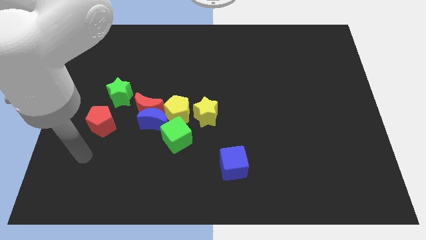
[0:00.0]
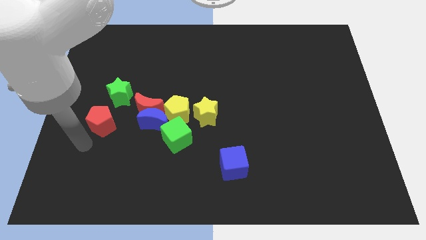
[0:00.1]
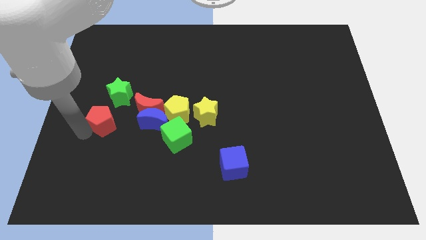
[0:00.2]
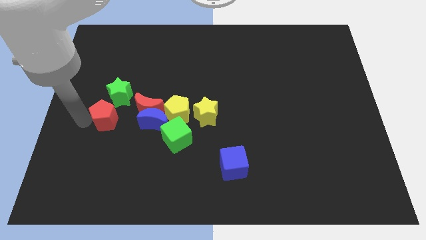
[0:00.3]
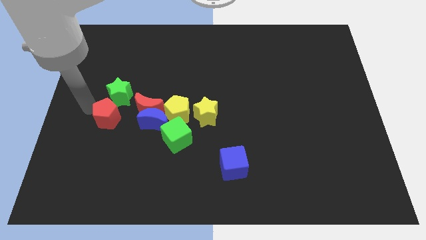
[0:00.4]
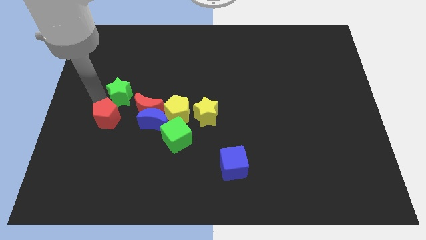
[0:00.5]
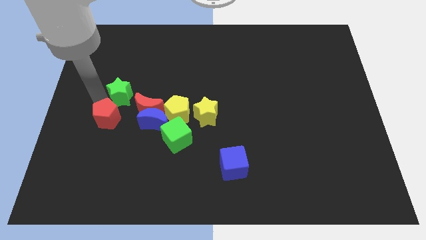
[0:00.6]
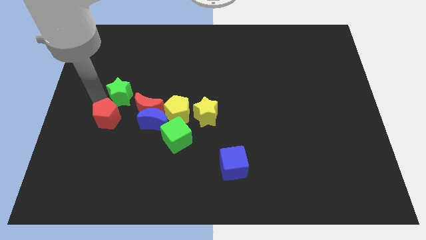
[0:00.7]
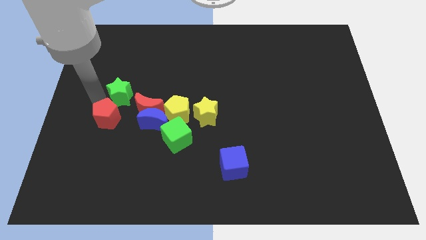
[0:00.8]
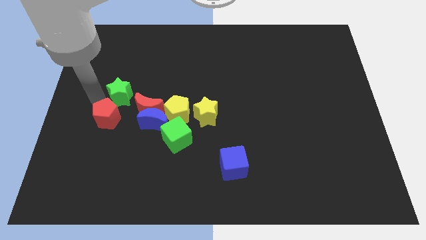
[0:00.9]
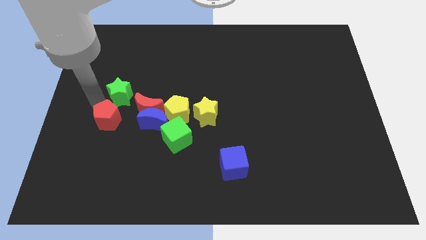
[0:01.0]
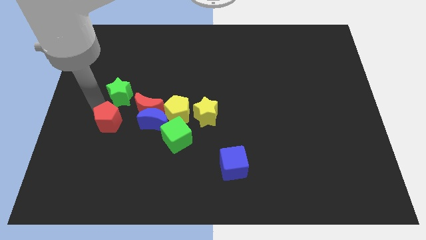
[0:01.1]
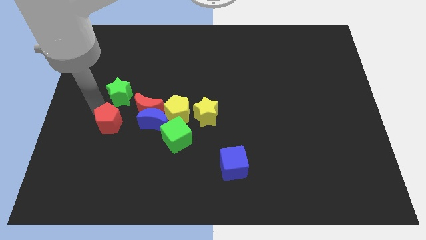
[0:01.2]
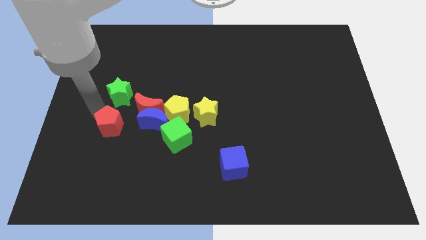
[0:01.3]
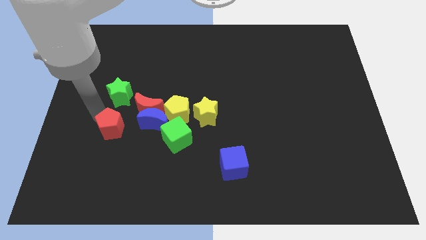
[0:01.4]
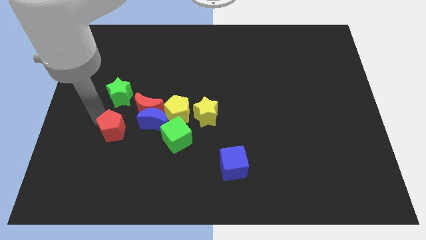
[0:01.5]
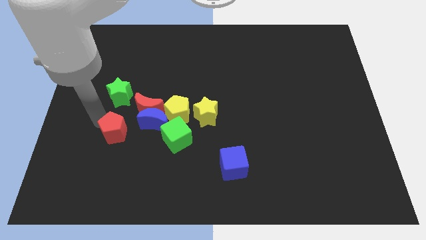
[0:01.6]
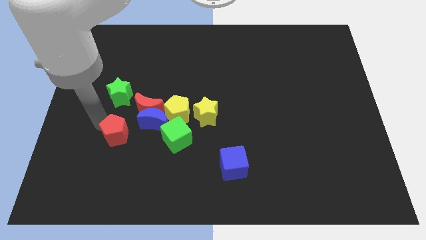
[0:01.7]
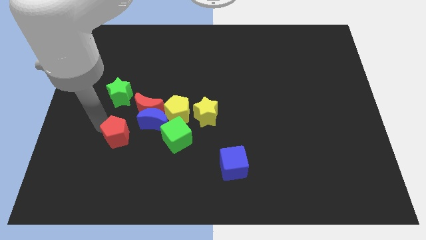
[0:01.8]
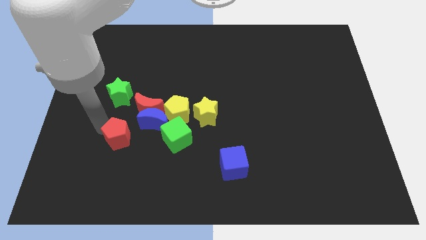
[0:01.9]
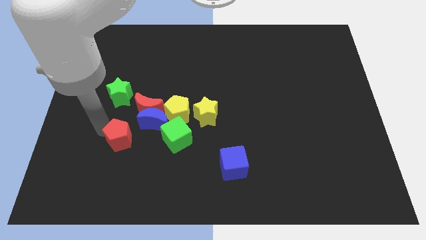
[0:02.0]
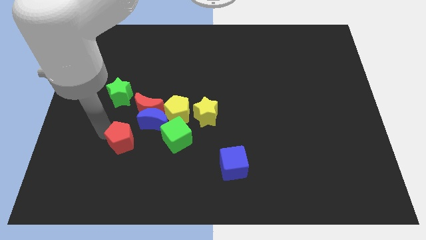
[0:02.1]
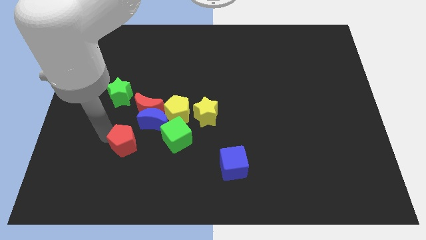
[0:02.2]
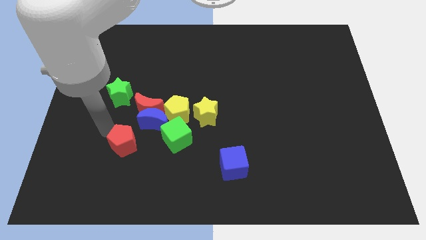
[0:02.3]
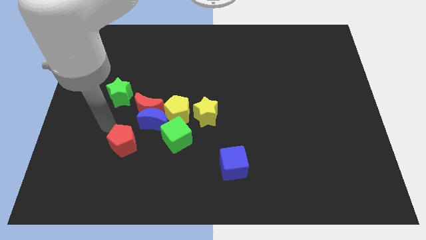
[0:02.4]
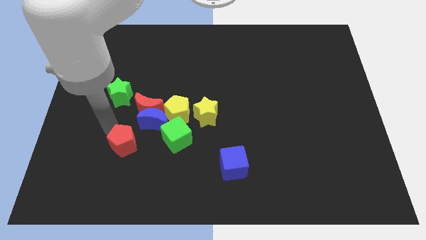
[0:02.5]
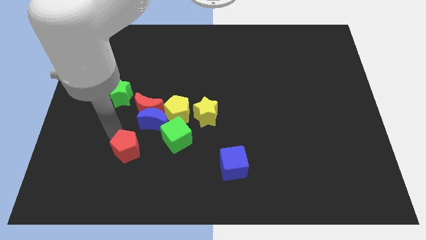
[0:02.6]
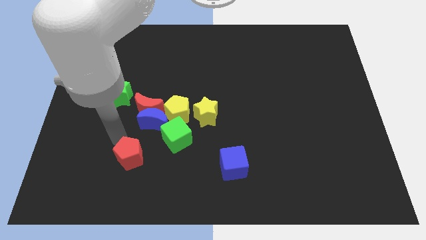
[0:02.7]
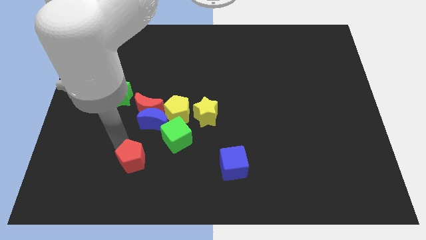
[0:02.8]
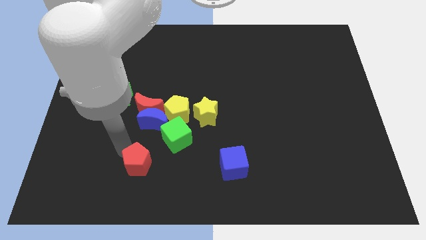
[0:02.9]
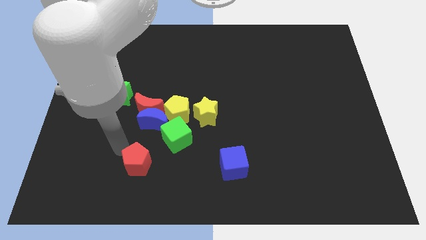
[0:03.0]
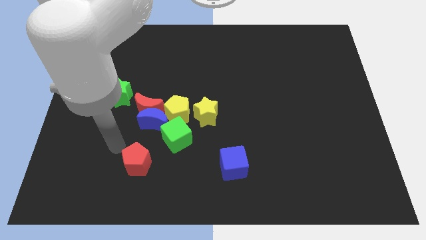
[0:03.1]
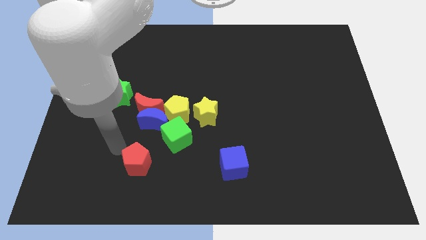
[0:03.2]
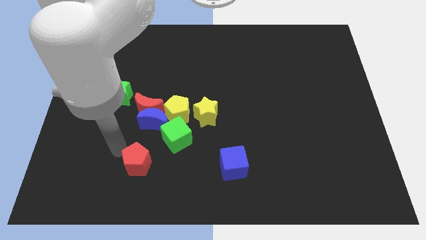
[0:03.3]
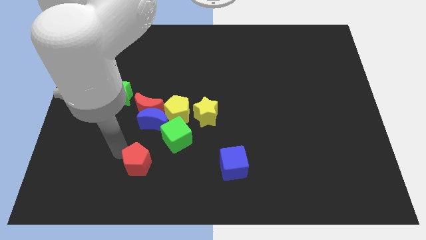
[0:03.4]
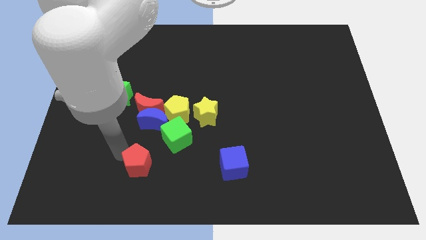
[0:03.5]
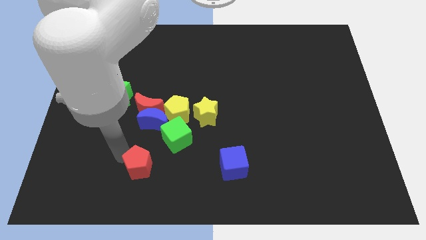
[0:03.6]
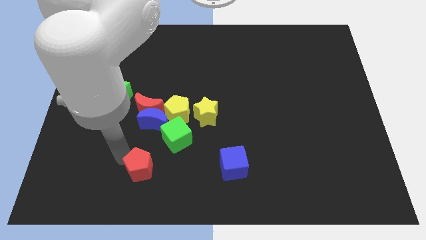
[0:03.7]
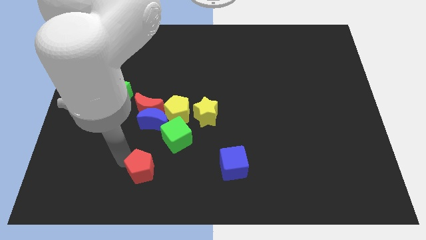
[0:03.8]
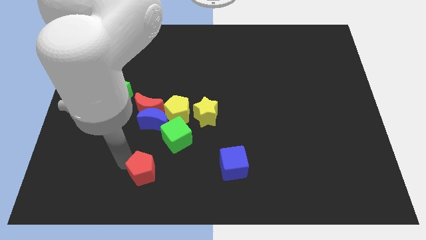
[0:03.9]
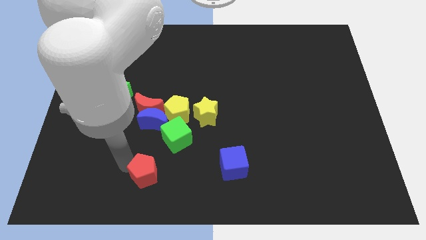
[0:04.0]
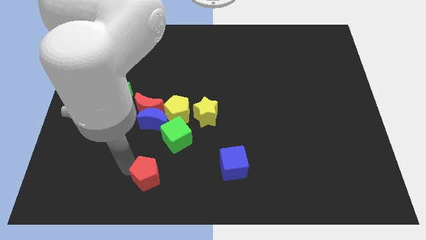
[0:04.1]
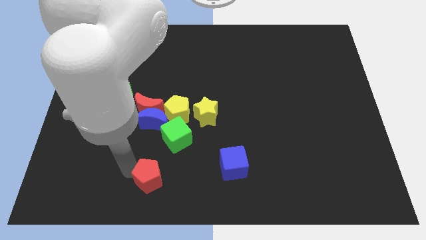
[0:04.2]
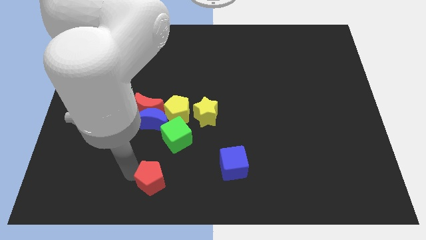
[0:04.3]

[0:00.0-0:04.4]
push the red pentagon to the bottom of the green cube

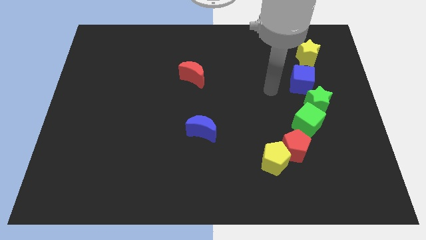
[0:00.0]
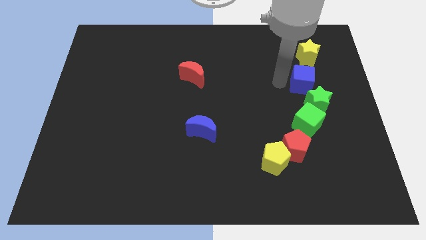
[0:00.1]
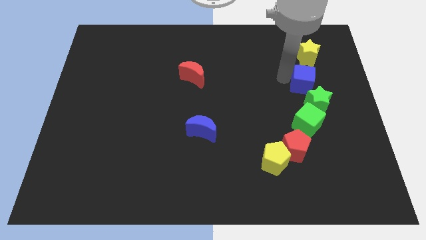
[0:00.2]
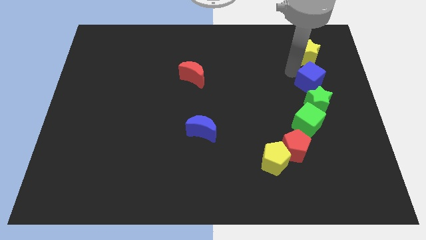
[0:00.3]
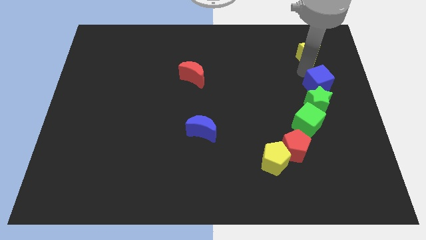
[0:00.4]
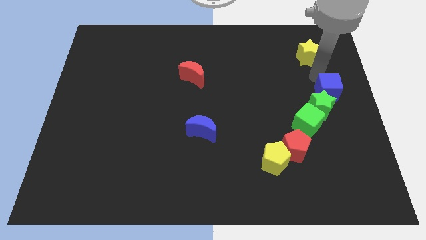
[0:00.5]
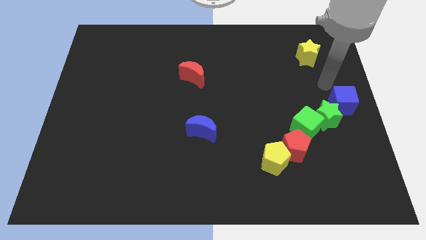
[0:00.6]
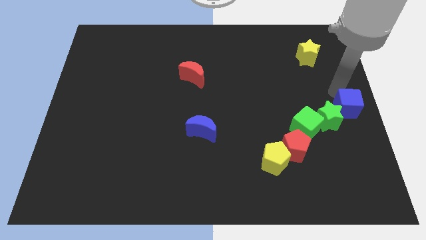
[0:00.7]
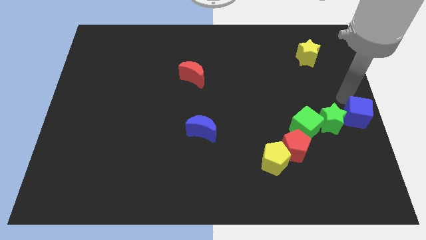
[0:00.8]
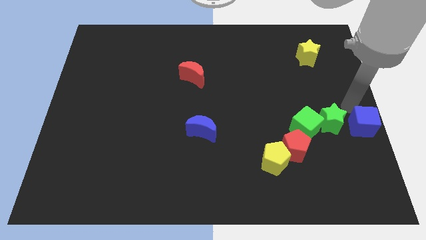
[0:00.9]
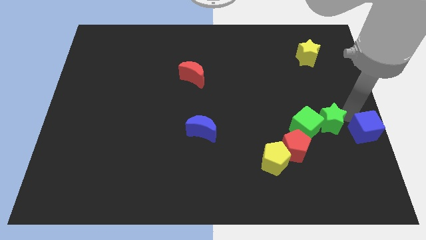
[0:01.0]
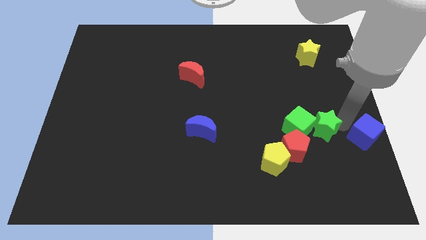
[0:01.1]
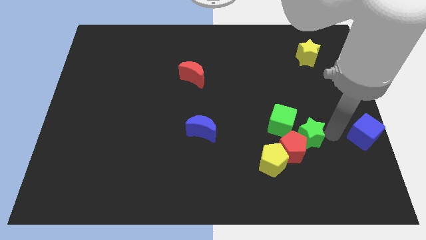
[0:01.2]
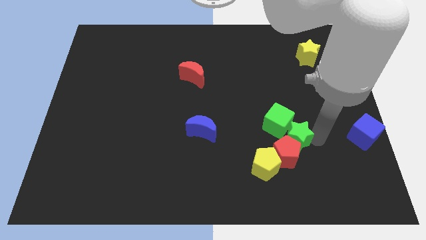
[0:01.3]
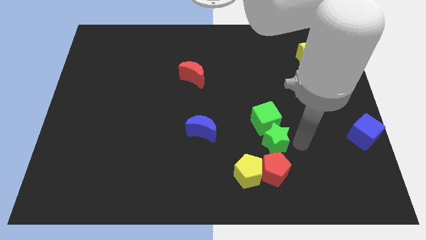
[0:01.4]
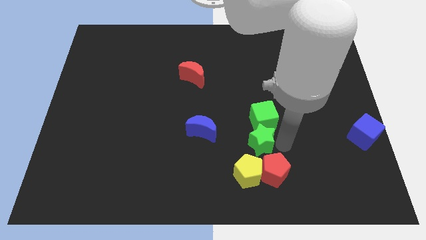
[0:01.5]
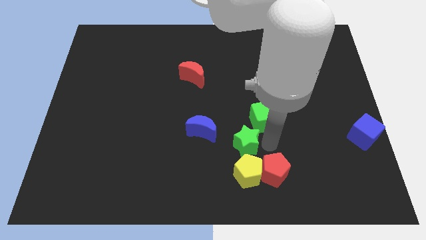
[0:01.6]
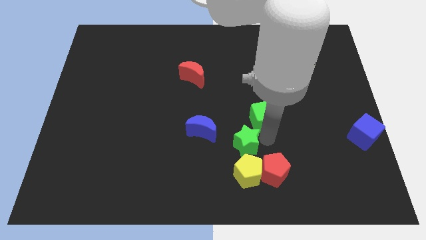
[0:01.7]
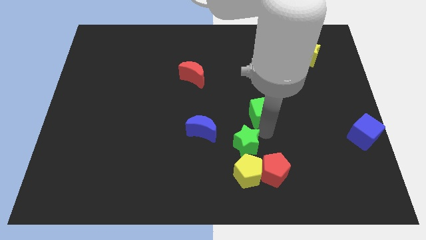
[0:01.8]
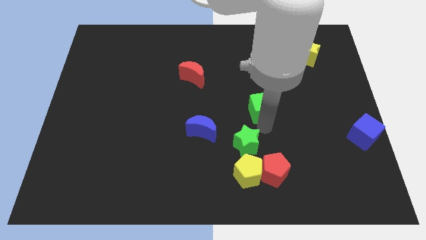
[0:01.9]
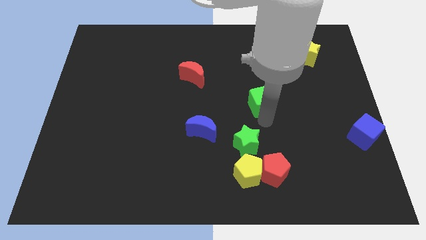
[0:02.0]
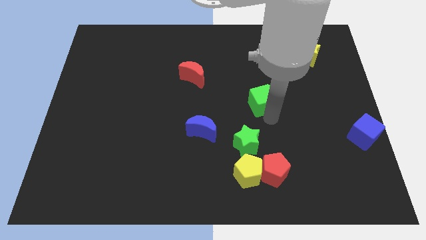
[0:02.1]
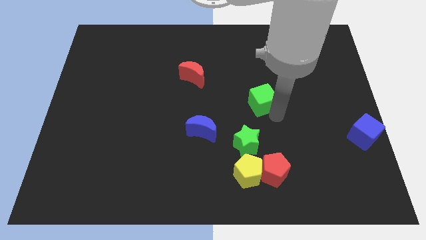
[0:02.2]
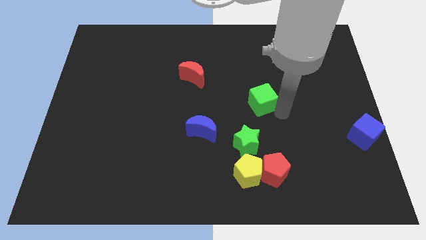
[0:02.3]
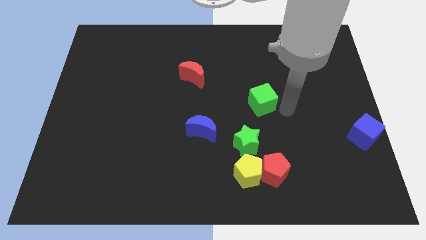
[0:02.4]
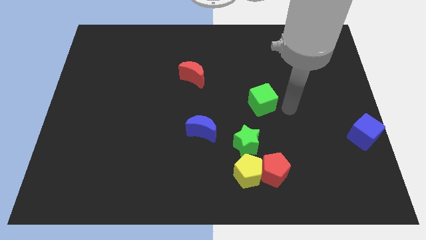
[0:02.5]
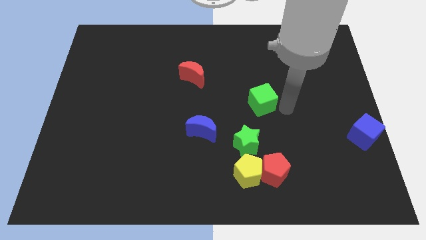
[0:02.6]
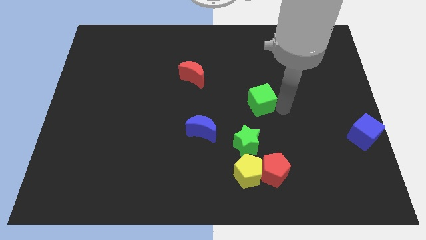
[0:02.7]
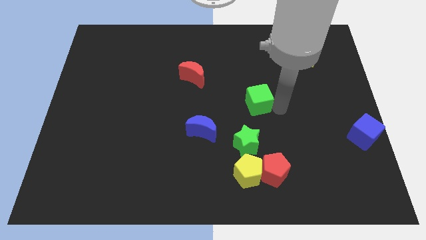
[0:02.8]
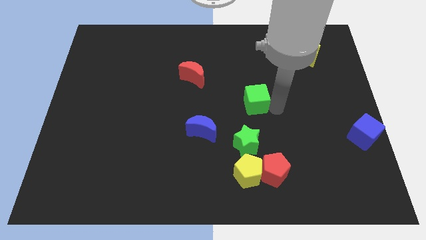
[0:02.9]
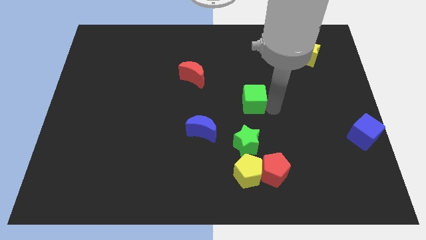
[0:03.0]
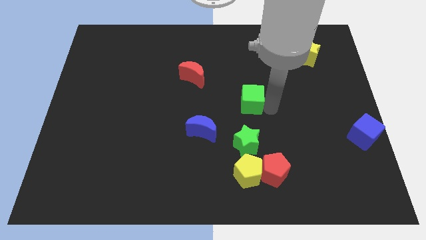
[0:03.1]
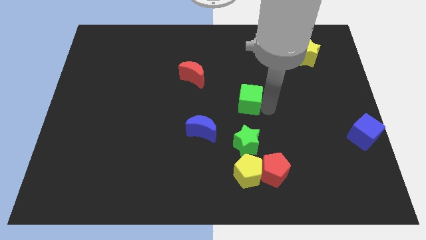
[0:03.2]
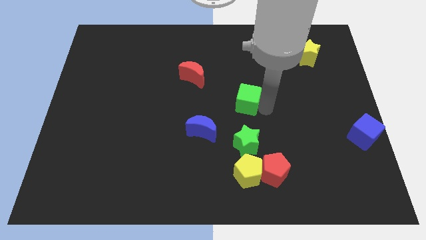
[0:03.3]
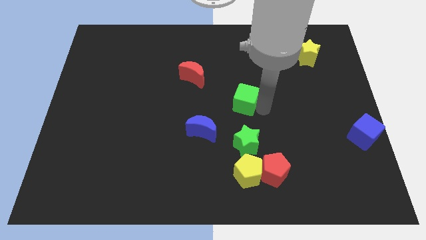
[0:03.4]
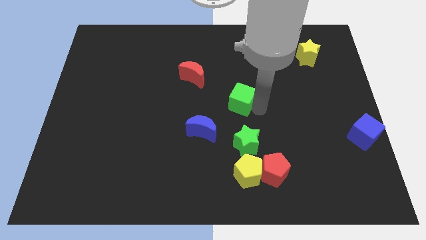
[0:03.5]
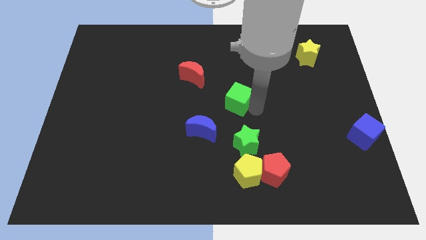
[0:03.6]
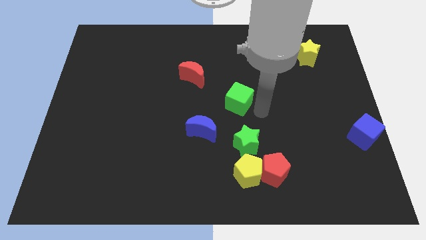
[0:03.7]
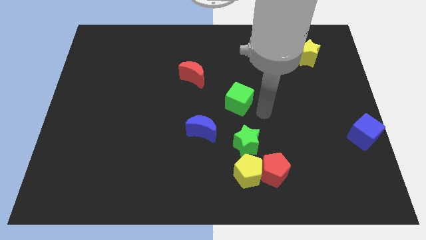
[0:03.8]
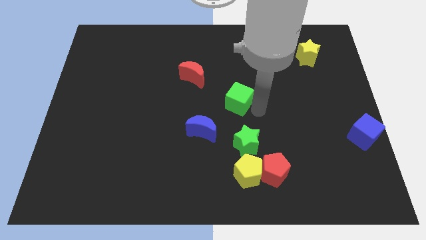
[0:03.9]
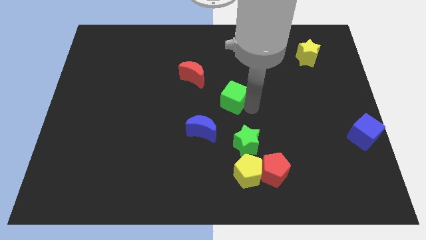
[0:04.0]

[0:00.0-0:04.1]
slide the green cube diagonally down and to the right of the red moon
